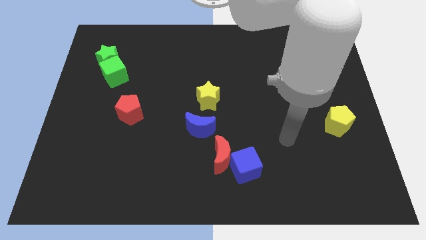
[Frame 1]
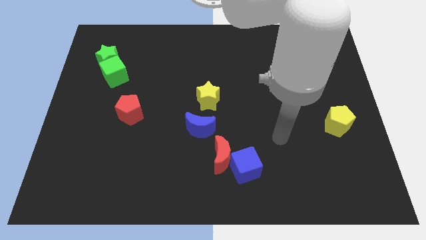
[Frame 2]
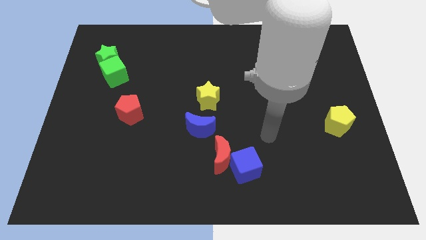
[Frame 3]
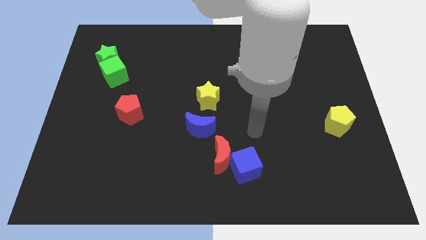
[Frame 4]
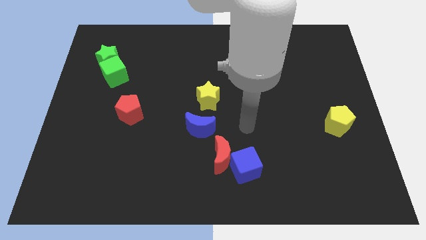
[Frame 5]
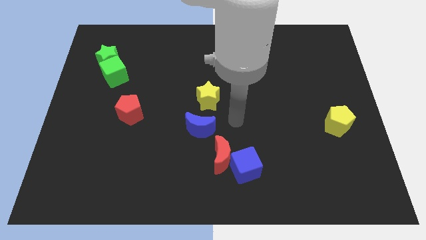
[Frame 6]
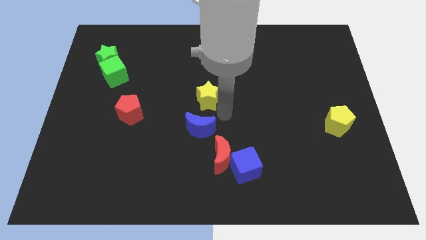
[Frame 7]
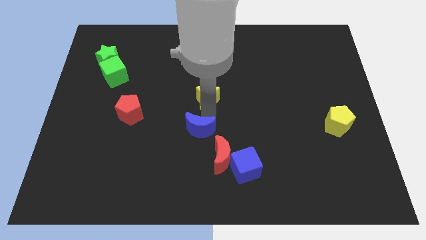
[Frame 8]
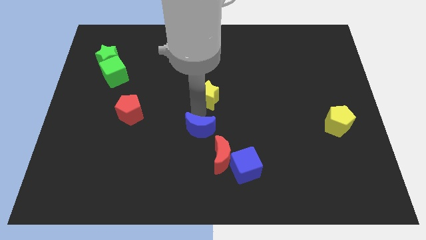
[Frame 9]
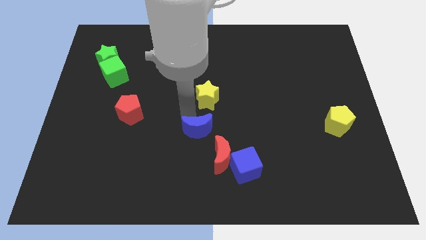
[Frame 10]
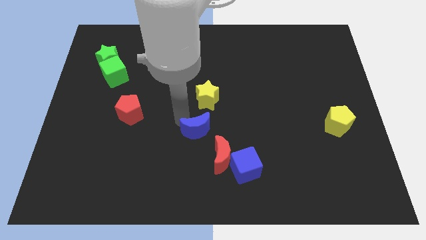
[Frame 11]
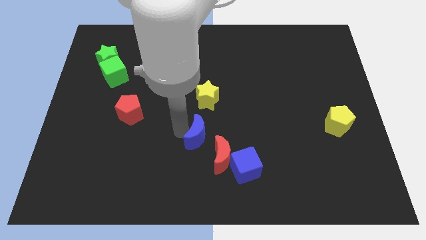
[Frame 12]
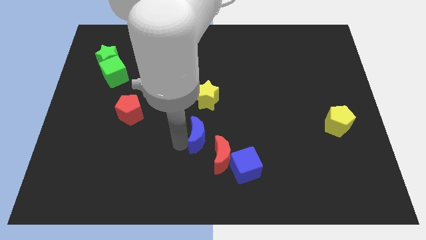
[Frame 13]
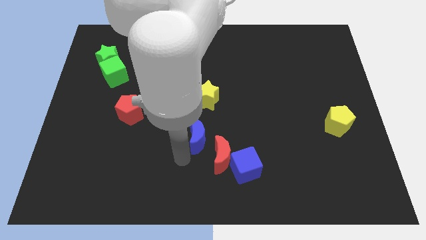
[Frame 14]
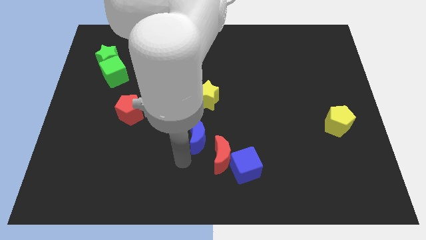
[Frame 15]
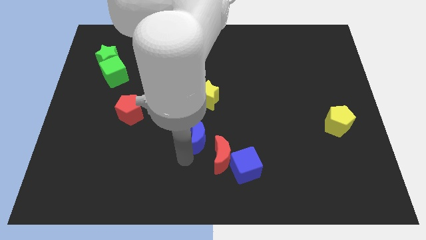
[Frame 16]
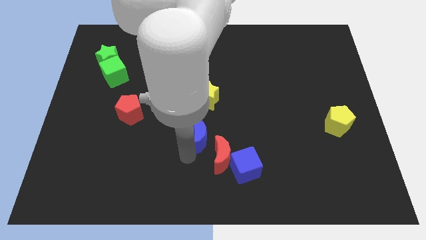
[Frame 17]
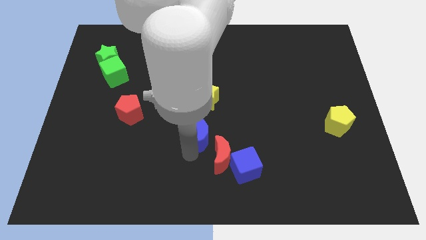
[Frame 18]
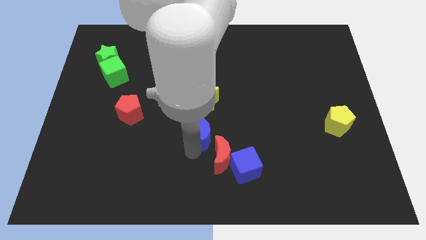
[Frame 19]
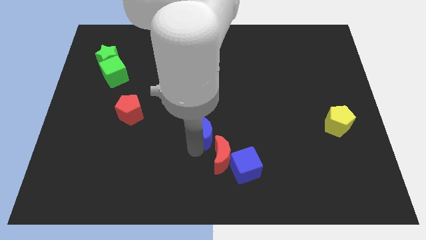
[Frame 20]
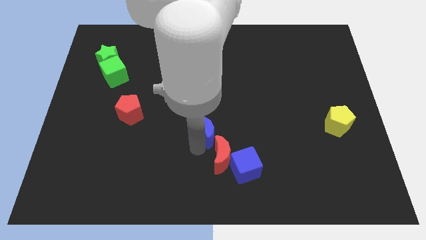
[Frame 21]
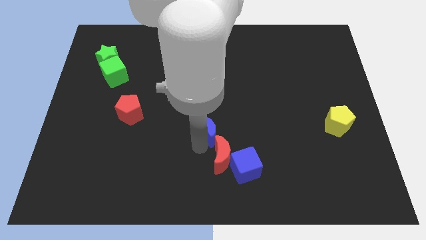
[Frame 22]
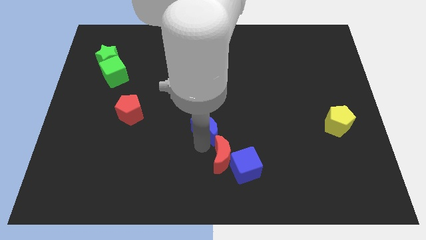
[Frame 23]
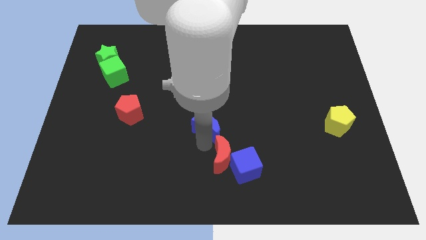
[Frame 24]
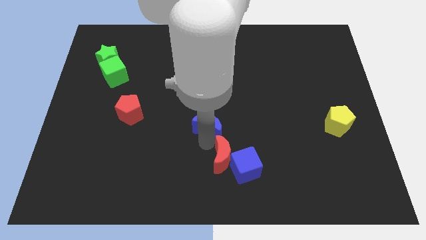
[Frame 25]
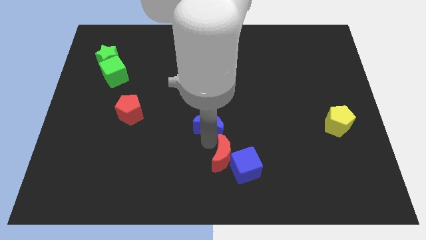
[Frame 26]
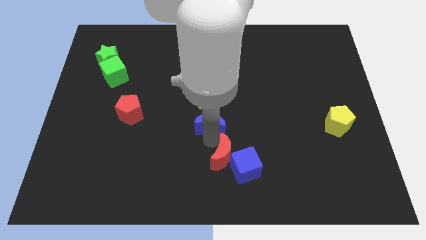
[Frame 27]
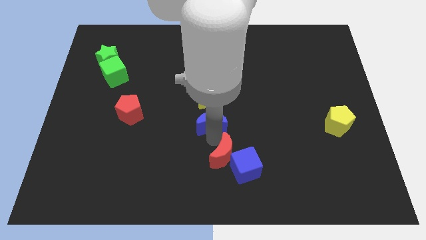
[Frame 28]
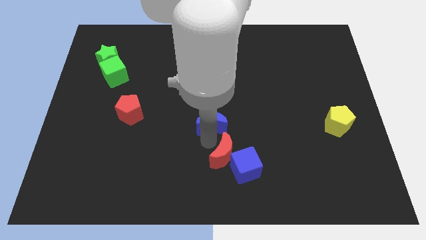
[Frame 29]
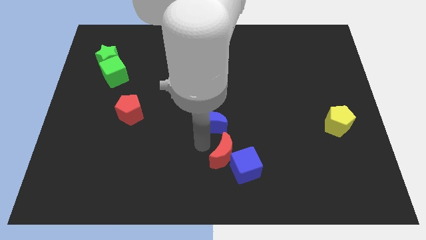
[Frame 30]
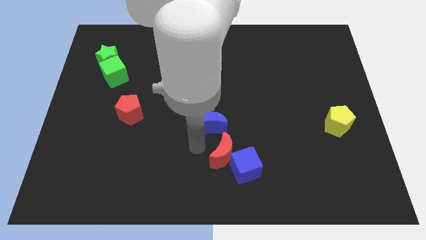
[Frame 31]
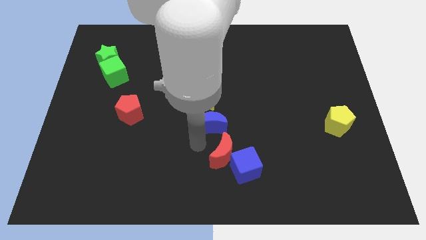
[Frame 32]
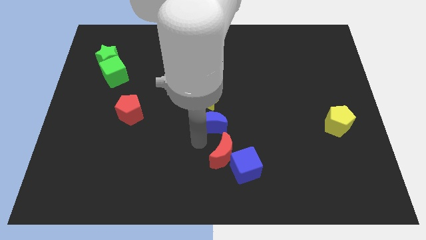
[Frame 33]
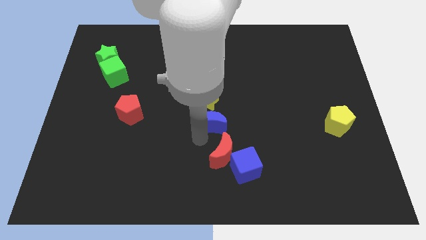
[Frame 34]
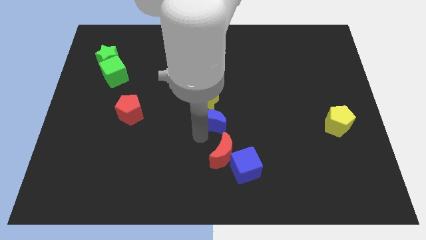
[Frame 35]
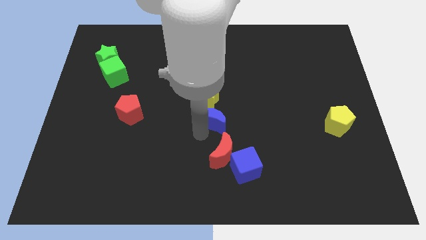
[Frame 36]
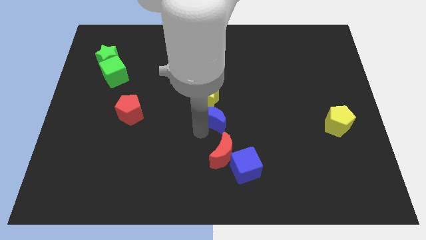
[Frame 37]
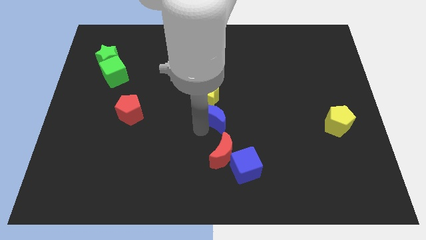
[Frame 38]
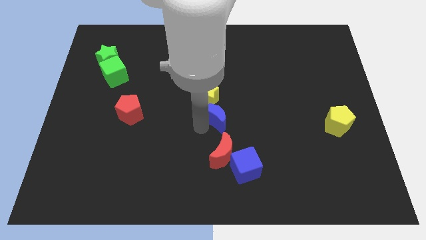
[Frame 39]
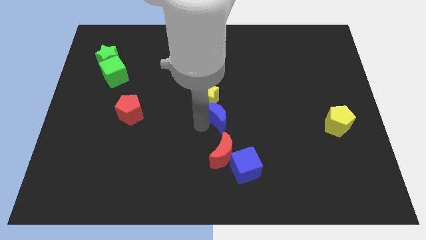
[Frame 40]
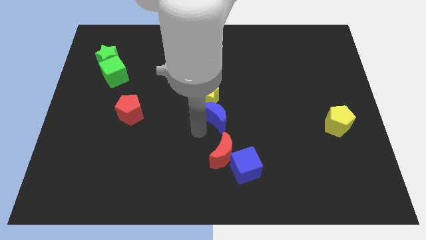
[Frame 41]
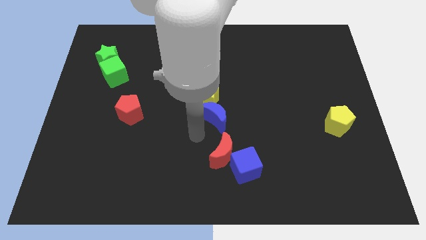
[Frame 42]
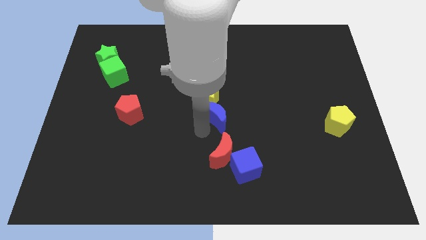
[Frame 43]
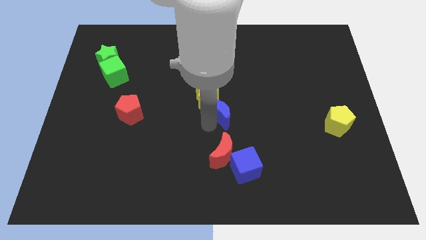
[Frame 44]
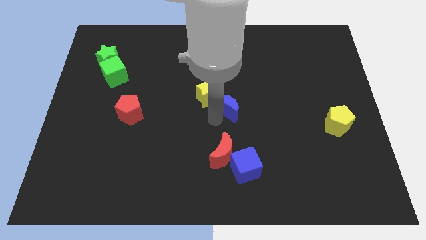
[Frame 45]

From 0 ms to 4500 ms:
push the blue moon somewhat upwards and to the right

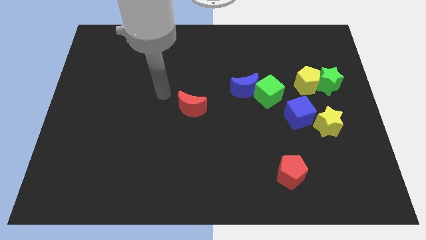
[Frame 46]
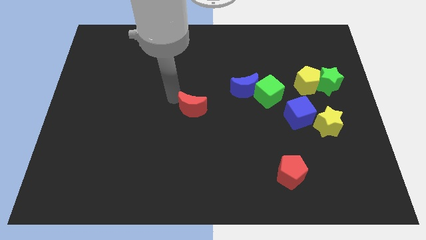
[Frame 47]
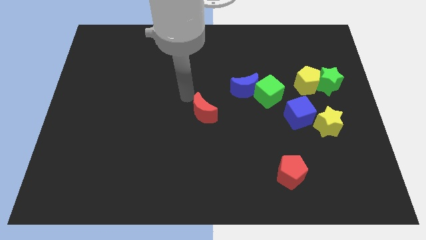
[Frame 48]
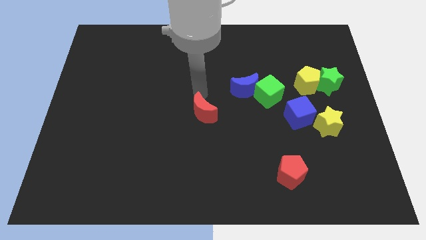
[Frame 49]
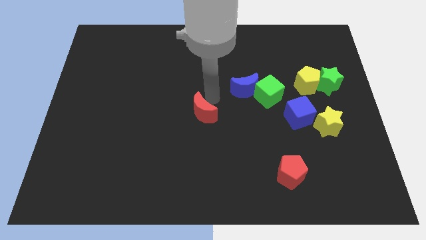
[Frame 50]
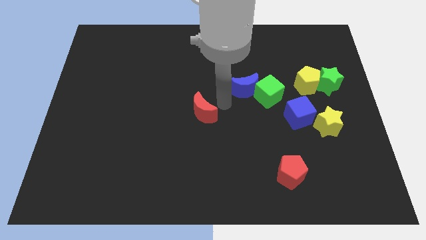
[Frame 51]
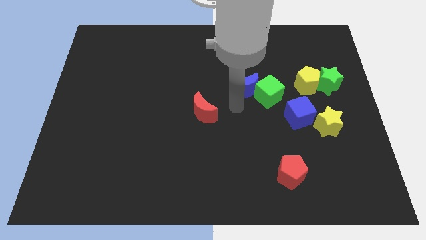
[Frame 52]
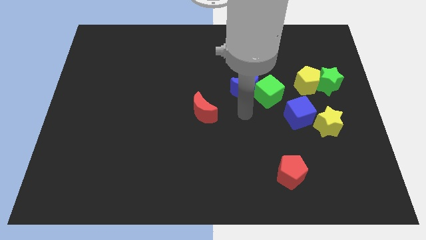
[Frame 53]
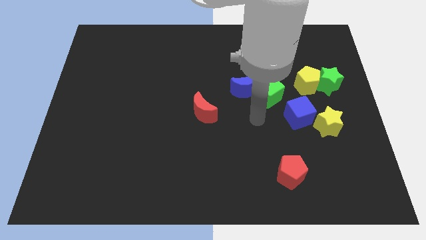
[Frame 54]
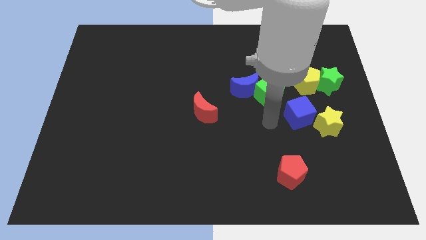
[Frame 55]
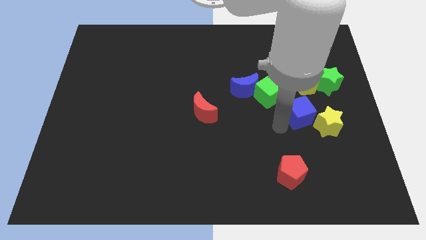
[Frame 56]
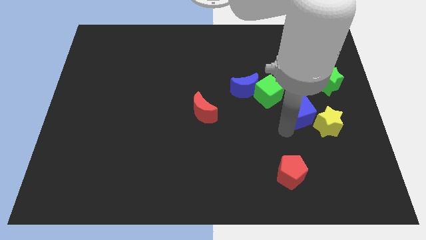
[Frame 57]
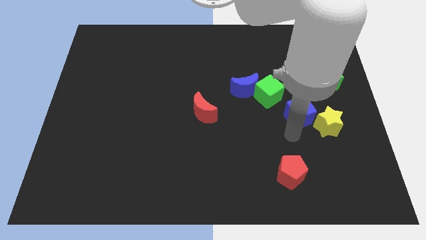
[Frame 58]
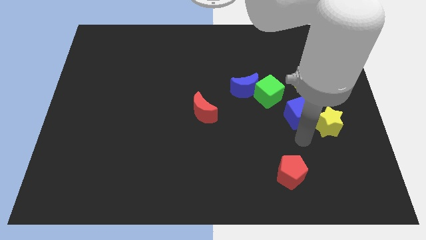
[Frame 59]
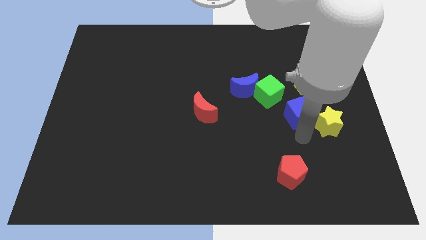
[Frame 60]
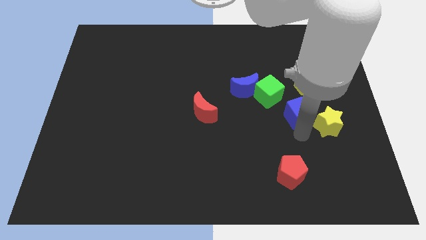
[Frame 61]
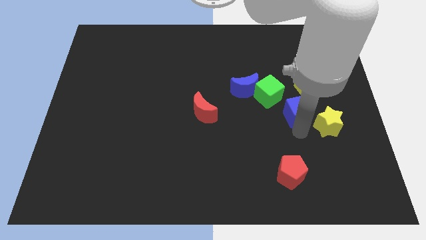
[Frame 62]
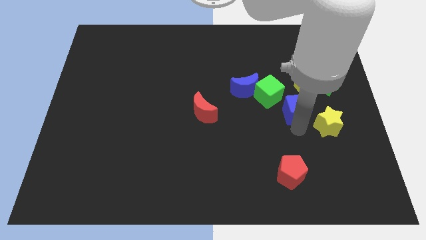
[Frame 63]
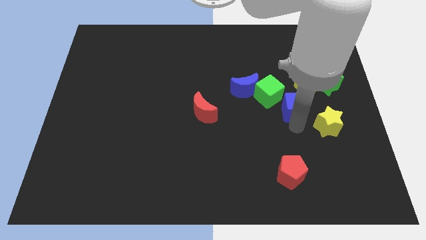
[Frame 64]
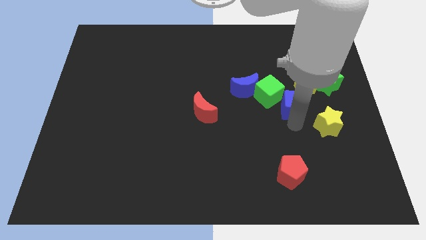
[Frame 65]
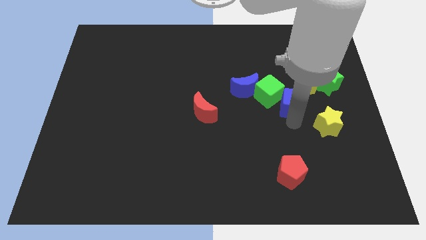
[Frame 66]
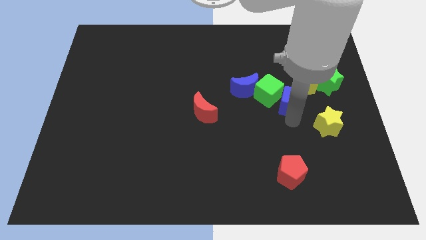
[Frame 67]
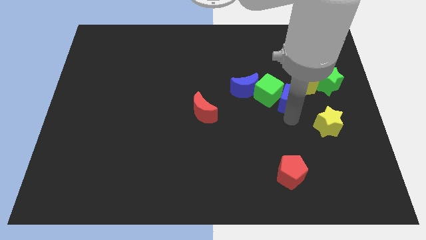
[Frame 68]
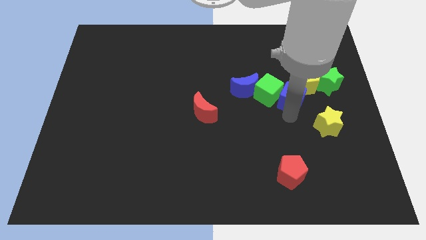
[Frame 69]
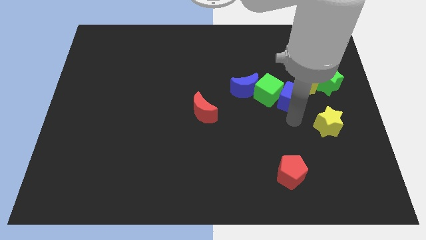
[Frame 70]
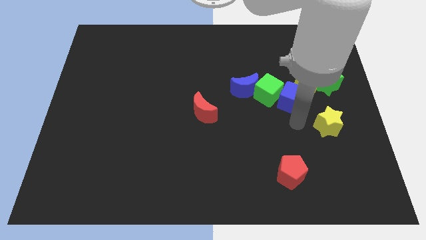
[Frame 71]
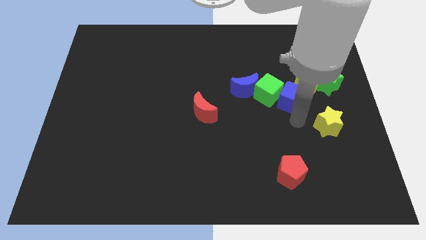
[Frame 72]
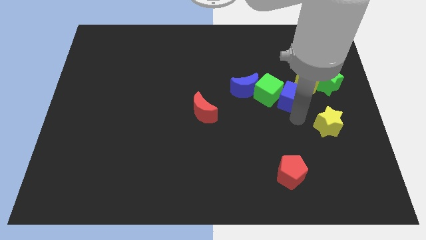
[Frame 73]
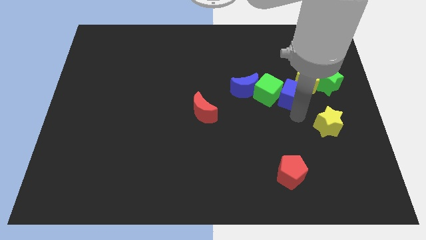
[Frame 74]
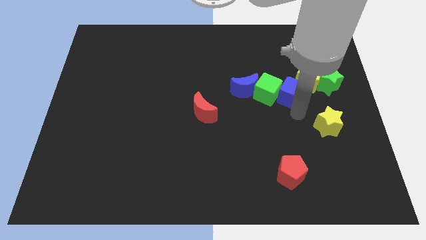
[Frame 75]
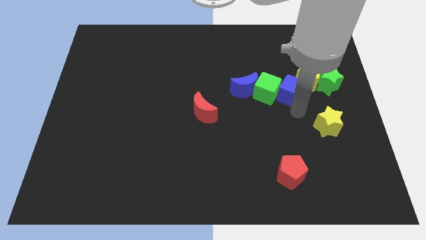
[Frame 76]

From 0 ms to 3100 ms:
push the blue cube a bit upwards

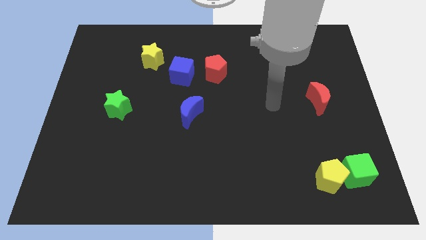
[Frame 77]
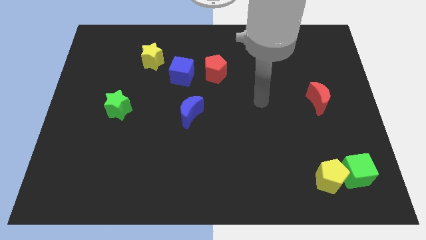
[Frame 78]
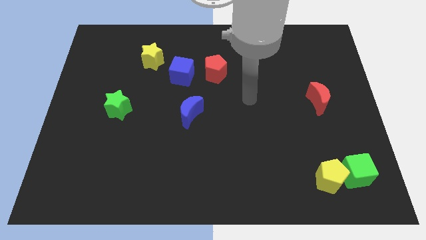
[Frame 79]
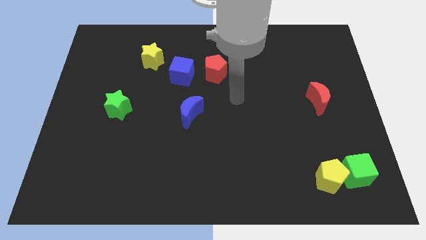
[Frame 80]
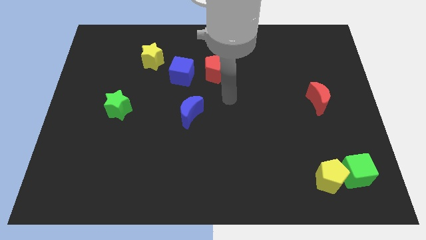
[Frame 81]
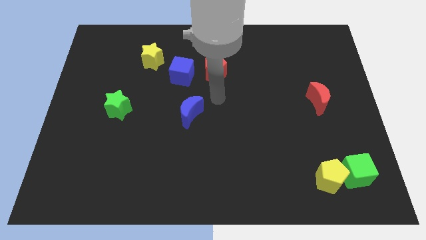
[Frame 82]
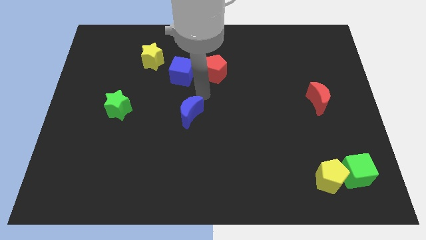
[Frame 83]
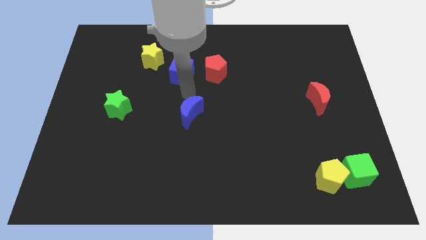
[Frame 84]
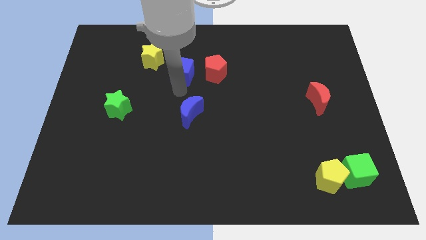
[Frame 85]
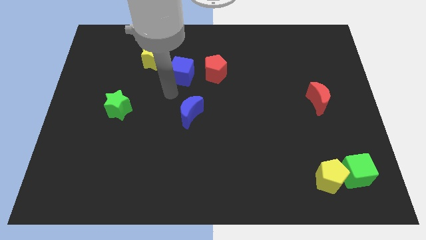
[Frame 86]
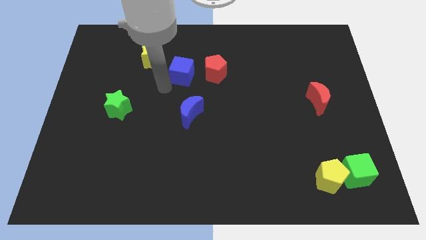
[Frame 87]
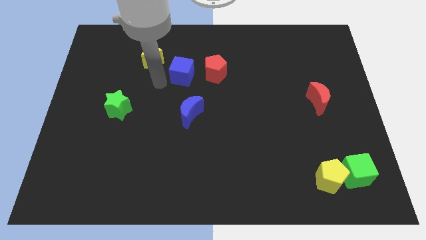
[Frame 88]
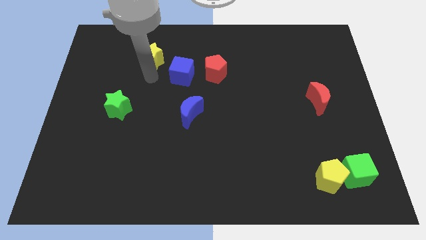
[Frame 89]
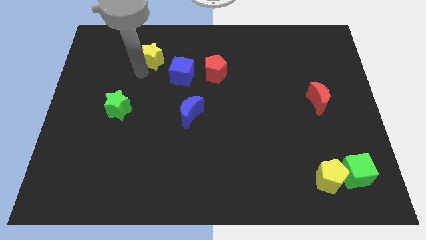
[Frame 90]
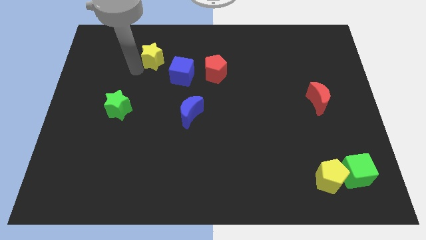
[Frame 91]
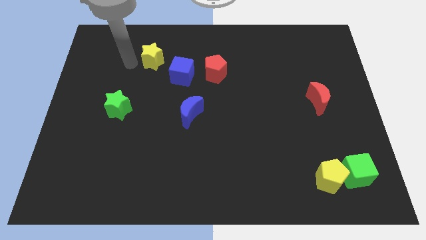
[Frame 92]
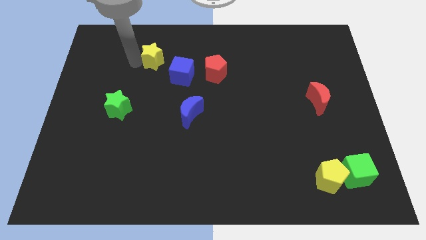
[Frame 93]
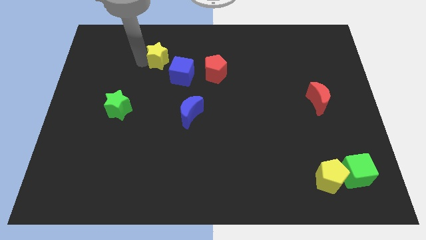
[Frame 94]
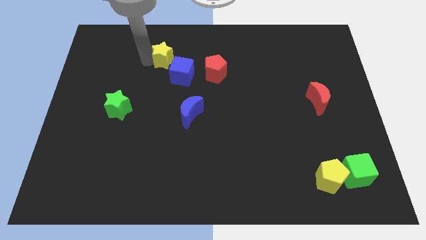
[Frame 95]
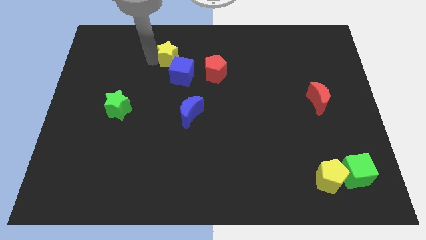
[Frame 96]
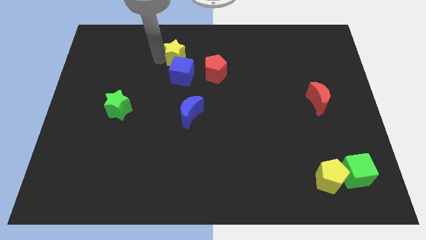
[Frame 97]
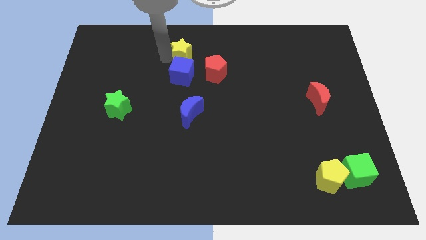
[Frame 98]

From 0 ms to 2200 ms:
push the yellow star right a bit
